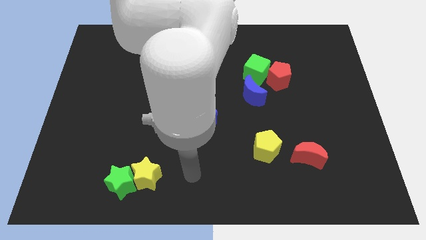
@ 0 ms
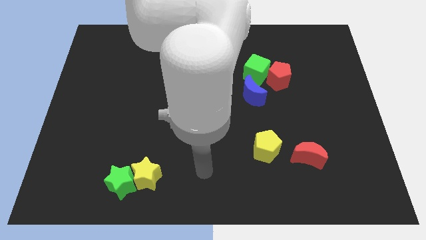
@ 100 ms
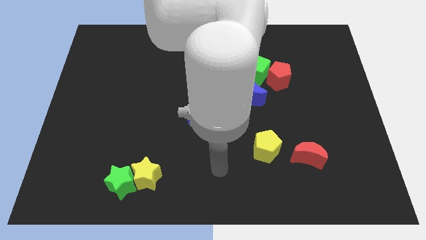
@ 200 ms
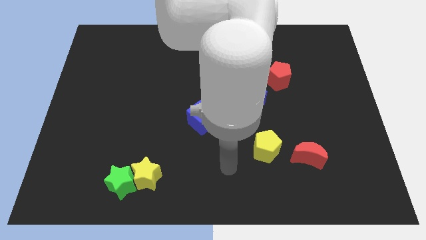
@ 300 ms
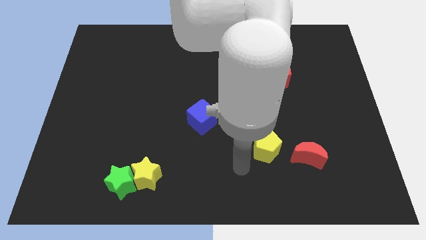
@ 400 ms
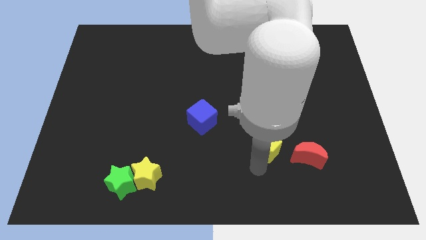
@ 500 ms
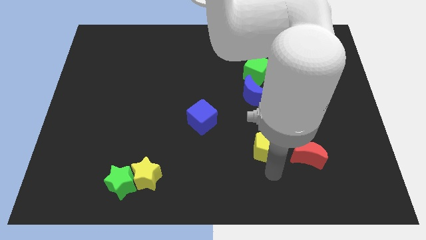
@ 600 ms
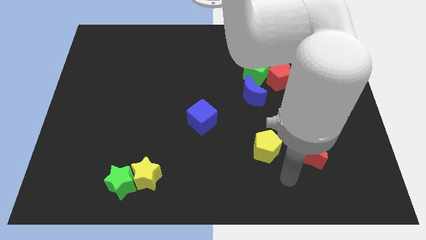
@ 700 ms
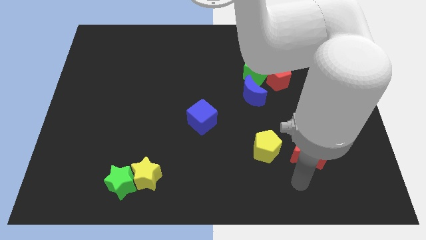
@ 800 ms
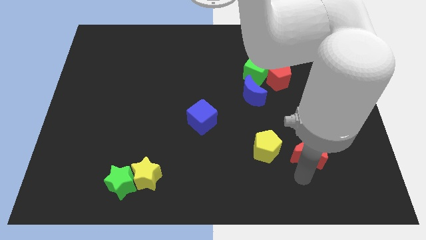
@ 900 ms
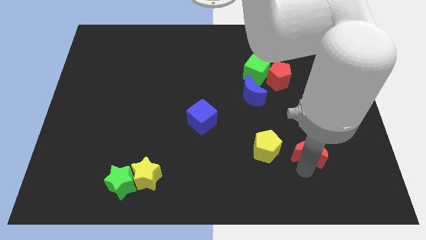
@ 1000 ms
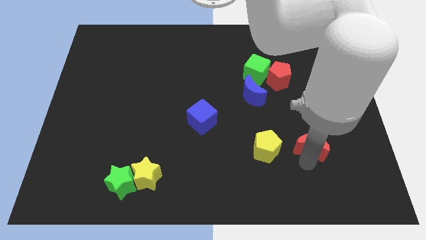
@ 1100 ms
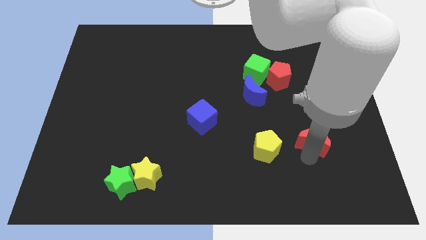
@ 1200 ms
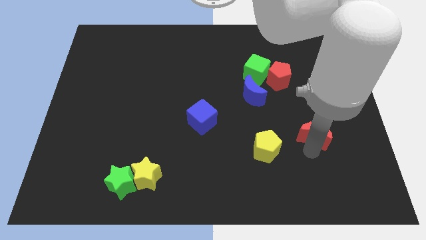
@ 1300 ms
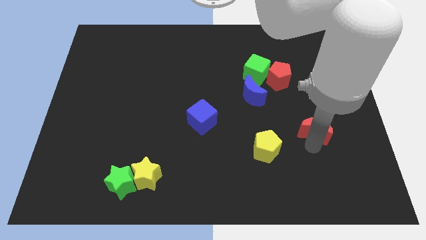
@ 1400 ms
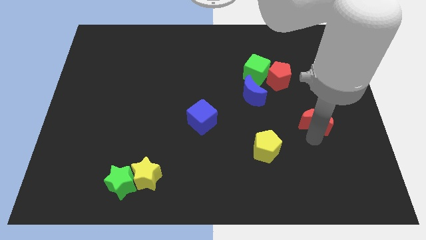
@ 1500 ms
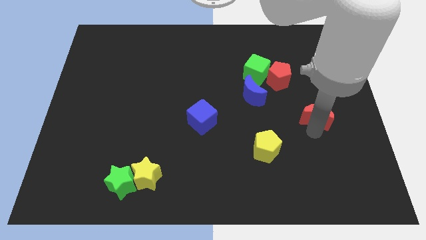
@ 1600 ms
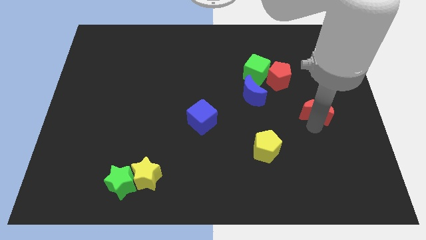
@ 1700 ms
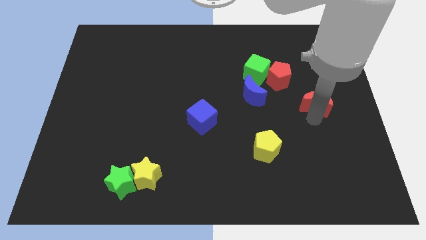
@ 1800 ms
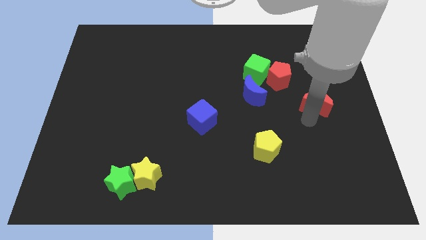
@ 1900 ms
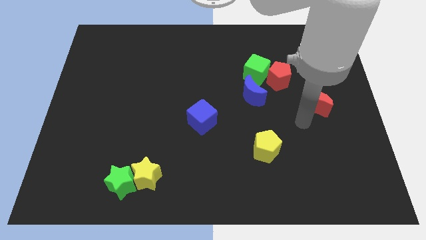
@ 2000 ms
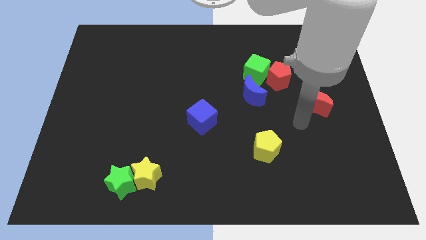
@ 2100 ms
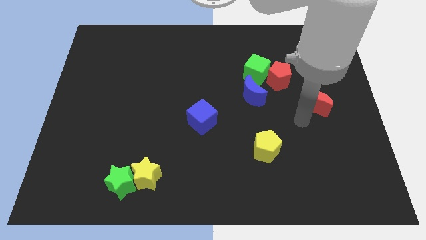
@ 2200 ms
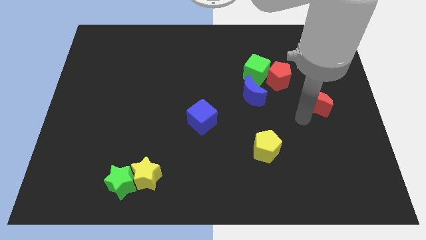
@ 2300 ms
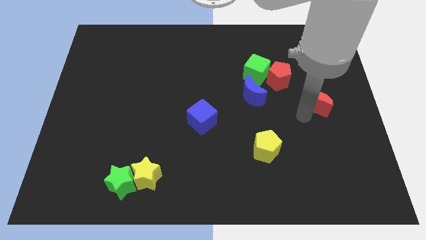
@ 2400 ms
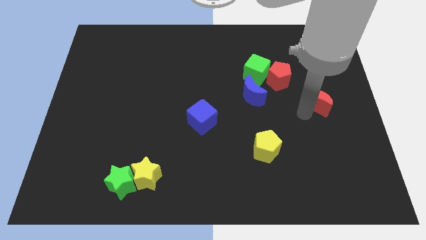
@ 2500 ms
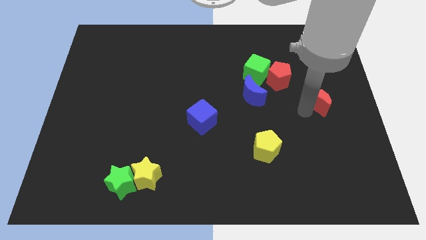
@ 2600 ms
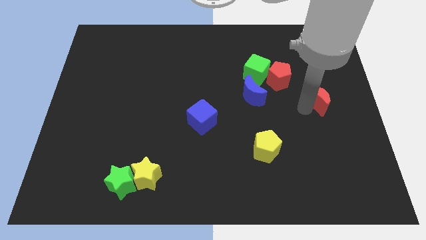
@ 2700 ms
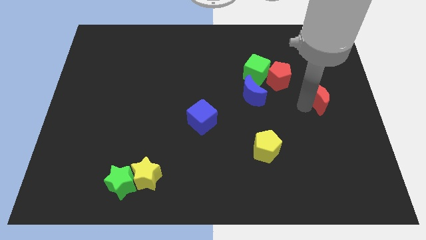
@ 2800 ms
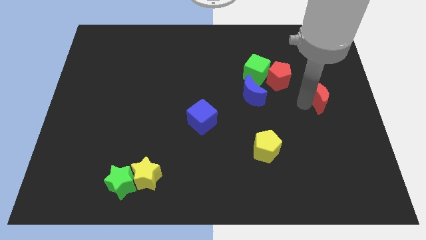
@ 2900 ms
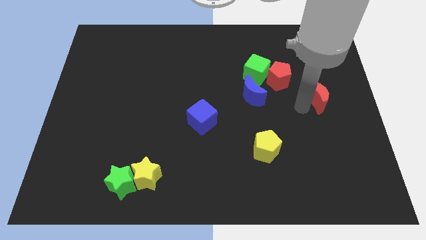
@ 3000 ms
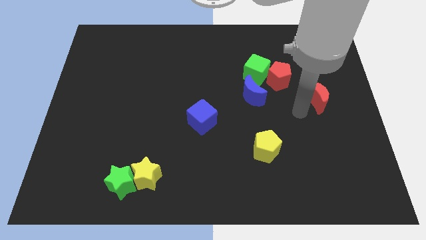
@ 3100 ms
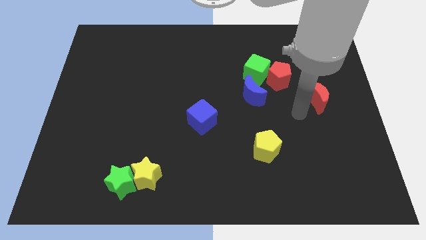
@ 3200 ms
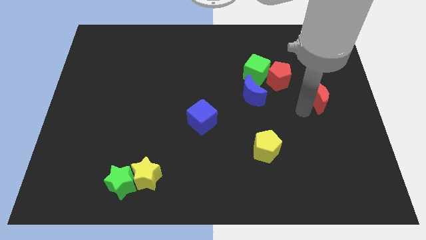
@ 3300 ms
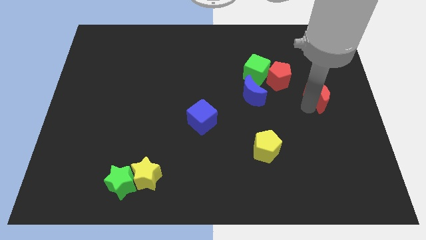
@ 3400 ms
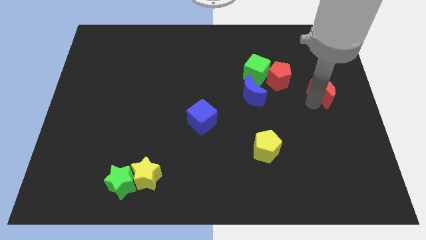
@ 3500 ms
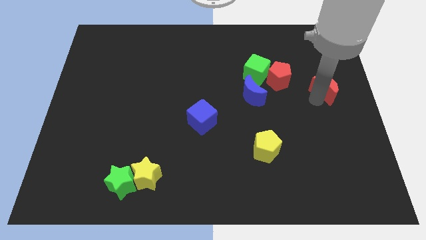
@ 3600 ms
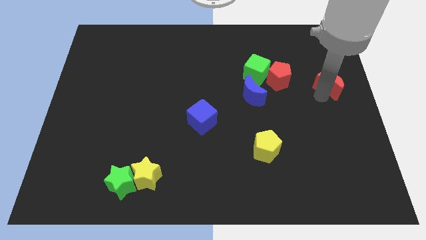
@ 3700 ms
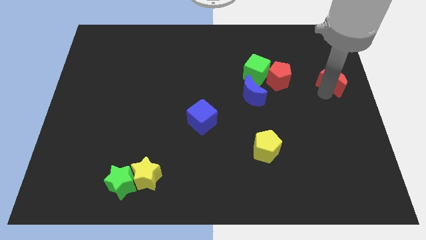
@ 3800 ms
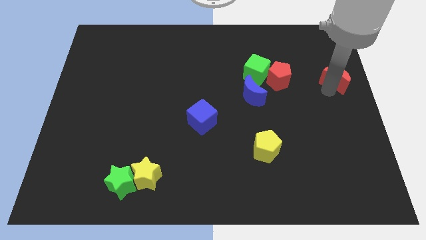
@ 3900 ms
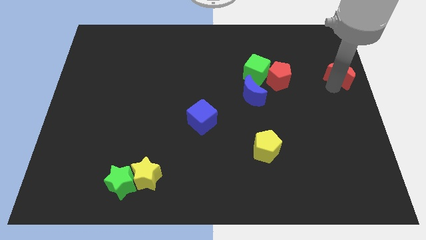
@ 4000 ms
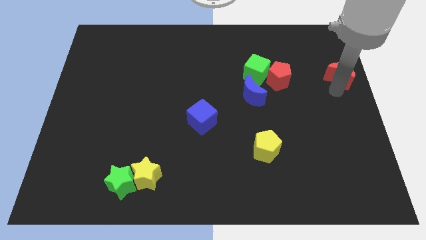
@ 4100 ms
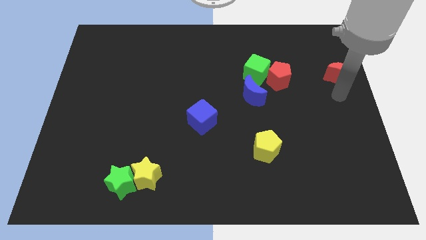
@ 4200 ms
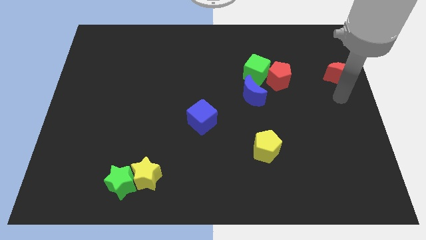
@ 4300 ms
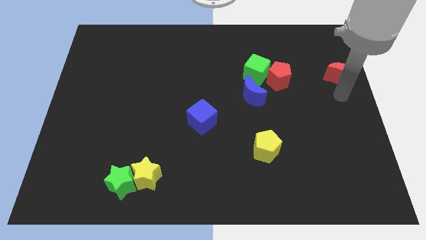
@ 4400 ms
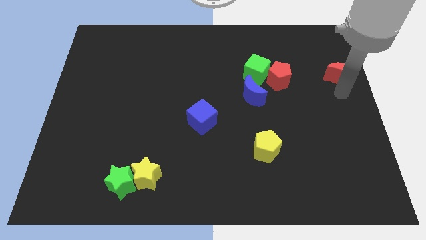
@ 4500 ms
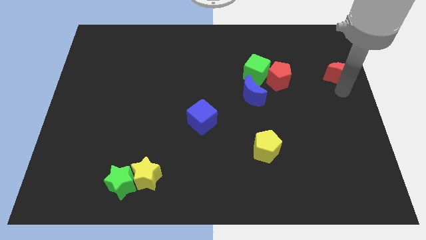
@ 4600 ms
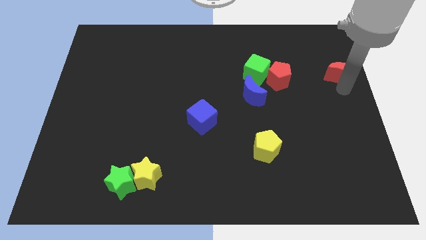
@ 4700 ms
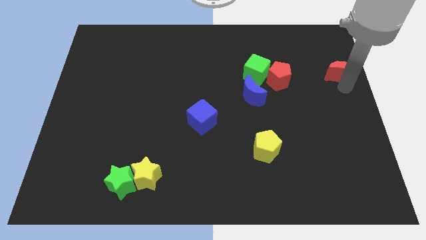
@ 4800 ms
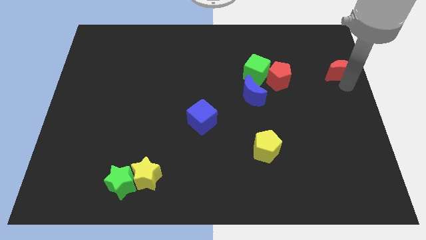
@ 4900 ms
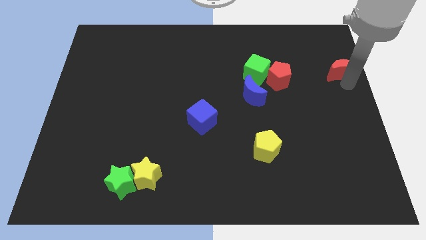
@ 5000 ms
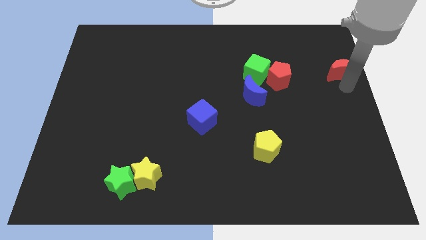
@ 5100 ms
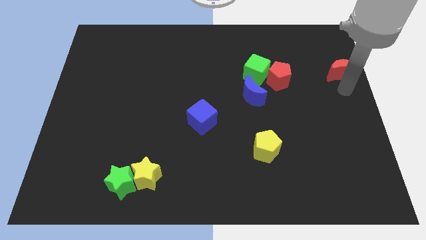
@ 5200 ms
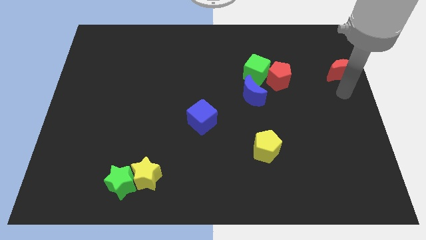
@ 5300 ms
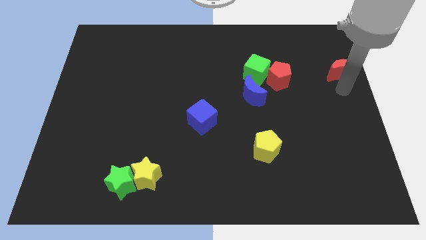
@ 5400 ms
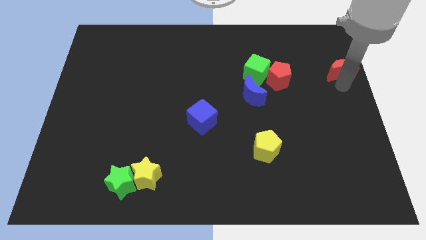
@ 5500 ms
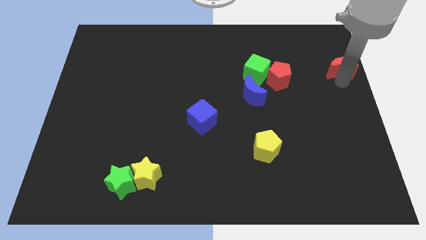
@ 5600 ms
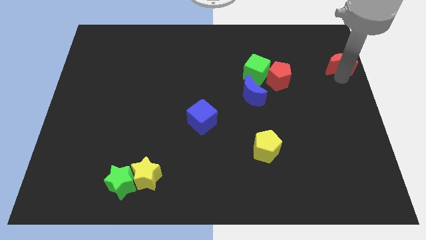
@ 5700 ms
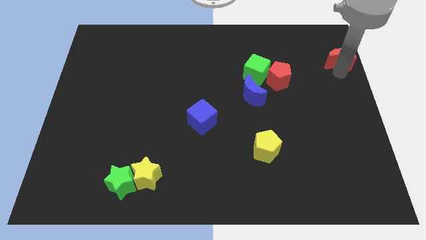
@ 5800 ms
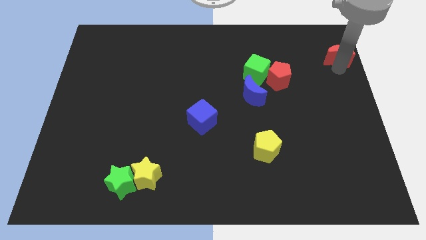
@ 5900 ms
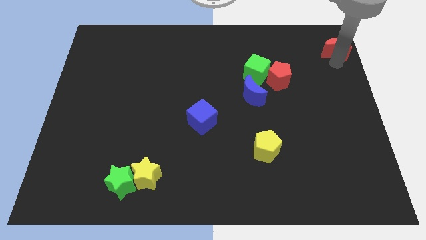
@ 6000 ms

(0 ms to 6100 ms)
push the red moon to the top right of the board
